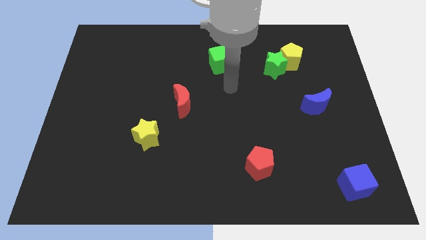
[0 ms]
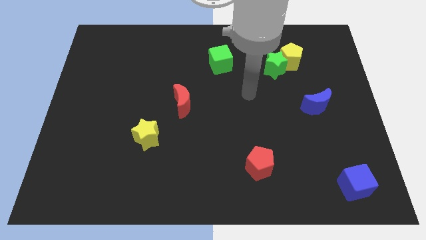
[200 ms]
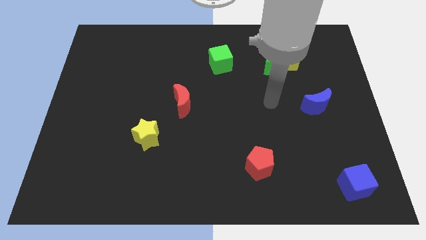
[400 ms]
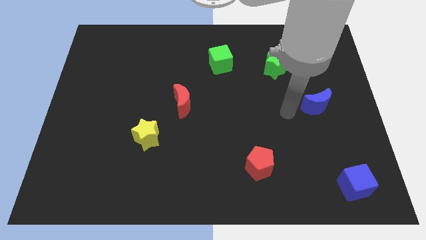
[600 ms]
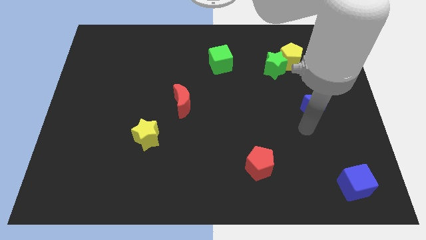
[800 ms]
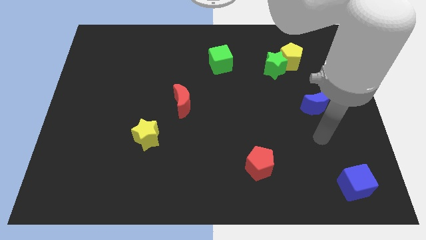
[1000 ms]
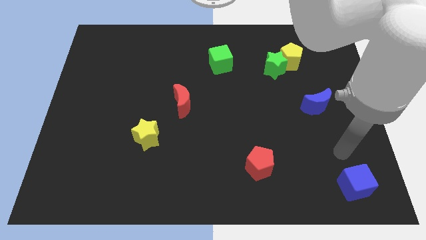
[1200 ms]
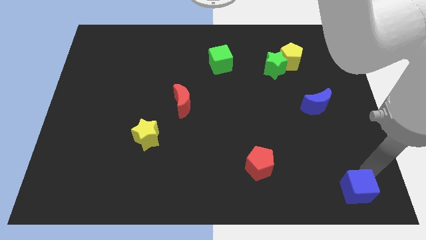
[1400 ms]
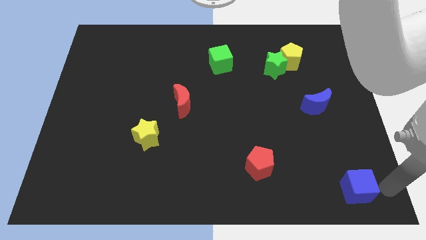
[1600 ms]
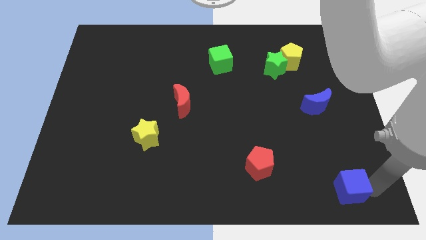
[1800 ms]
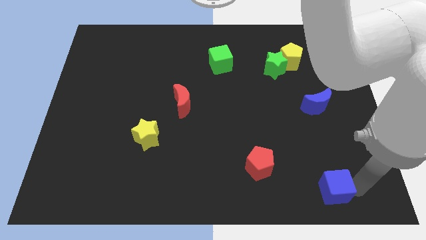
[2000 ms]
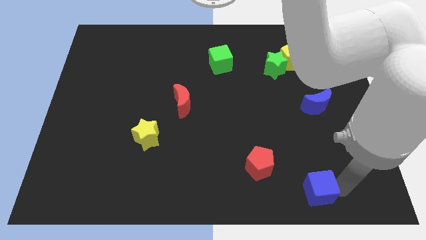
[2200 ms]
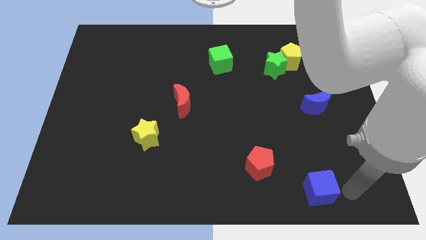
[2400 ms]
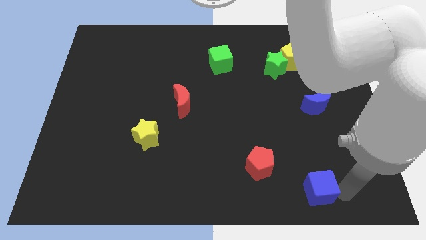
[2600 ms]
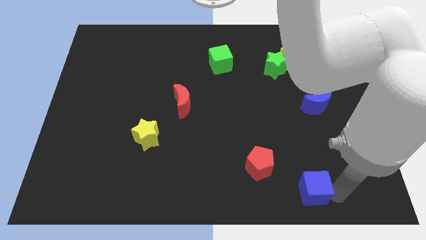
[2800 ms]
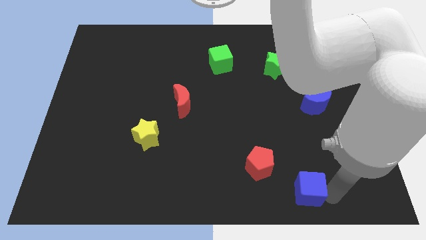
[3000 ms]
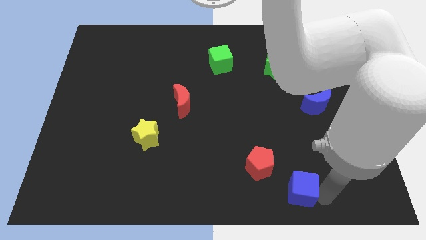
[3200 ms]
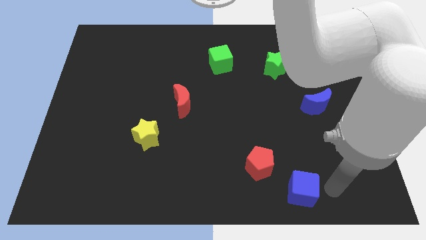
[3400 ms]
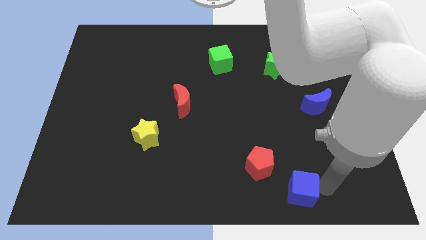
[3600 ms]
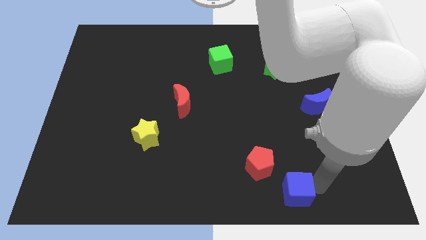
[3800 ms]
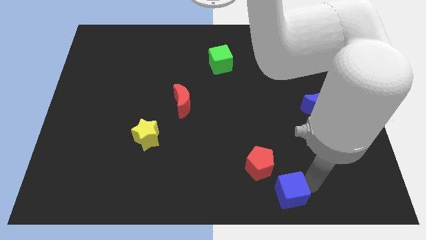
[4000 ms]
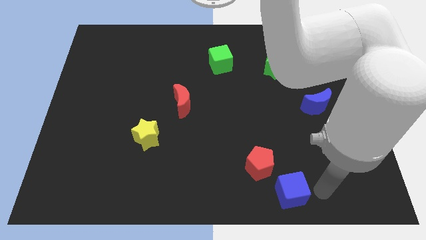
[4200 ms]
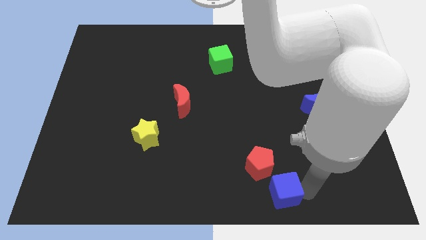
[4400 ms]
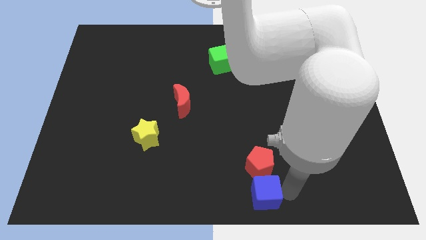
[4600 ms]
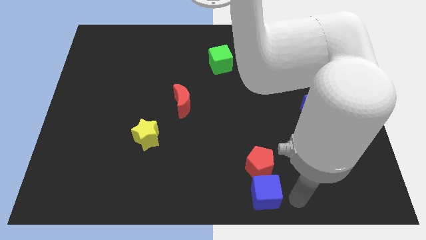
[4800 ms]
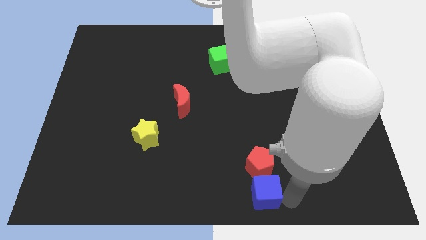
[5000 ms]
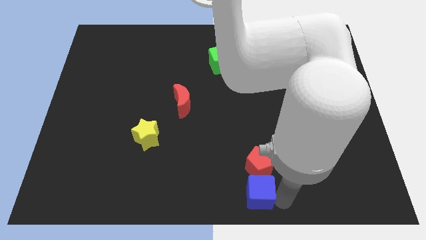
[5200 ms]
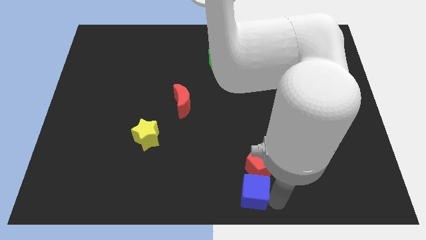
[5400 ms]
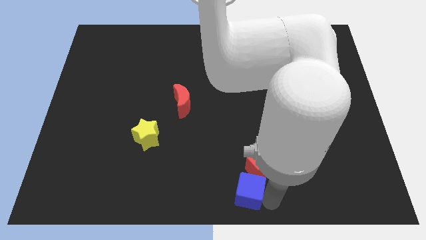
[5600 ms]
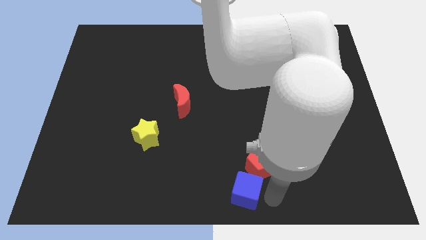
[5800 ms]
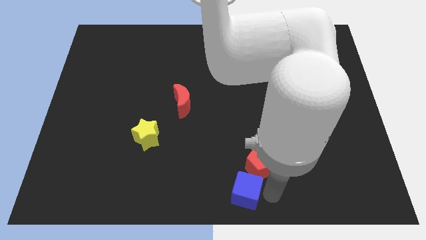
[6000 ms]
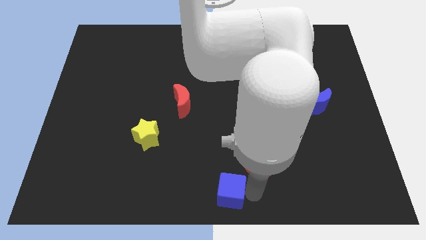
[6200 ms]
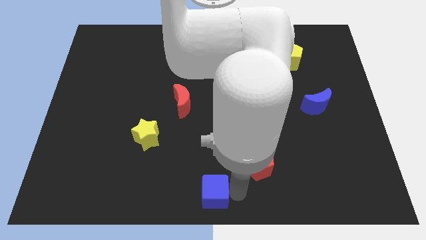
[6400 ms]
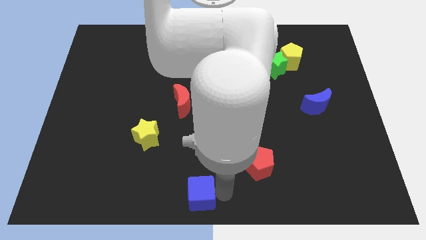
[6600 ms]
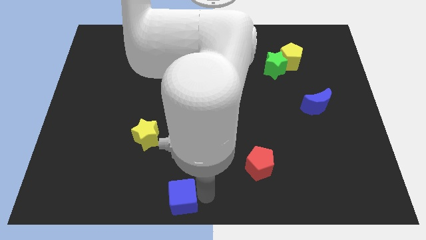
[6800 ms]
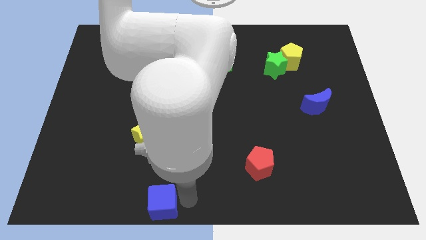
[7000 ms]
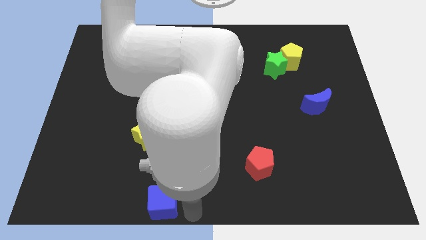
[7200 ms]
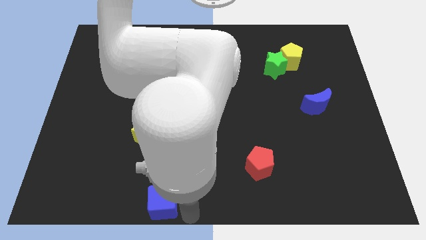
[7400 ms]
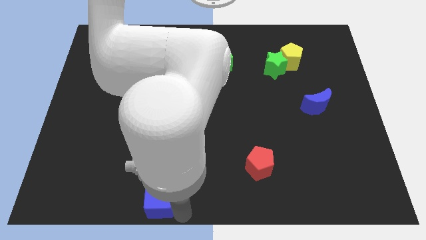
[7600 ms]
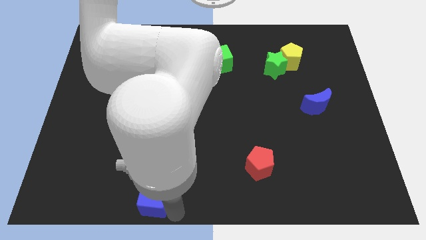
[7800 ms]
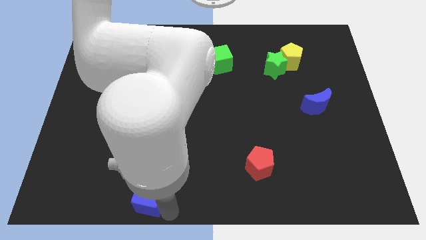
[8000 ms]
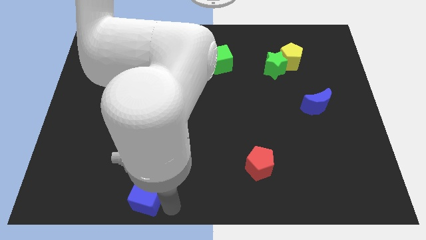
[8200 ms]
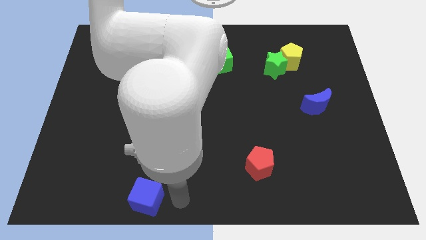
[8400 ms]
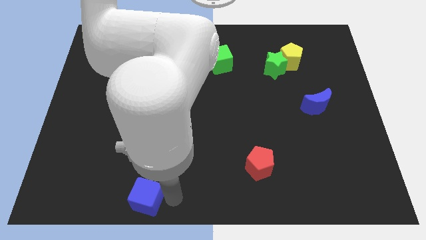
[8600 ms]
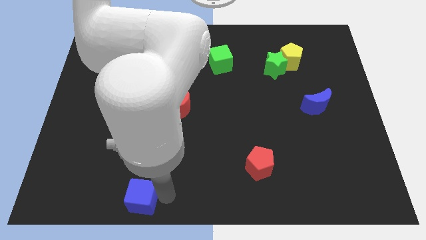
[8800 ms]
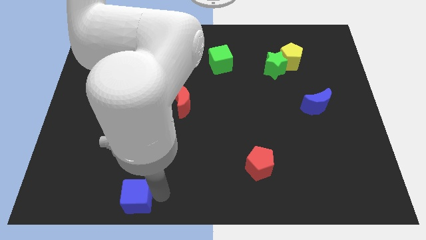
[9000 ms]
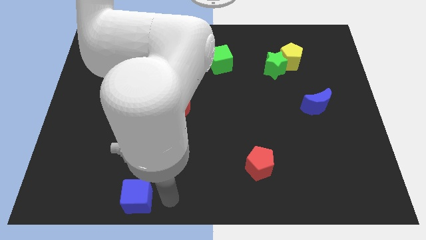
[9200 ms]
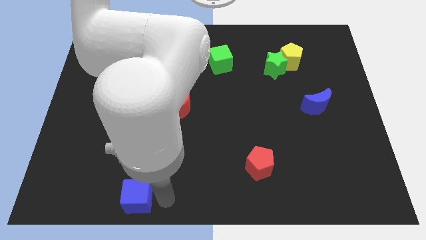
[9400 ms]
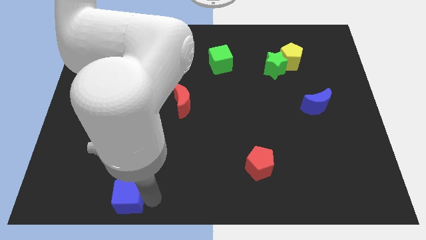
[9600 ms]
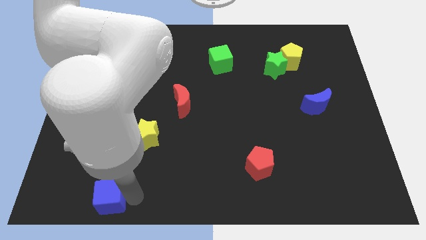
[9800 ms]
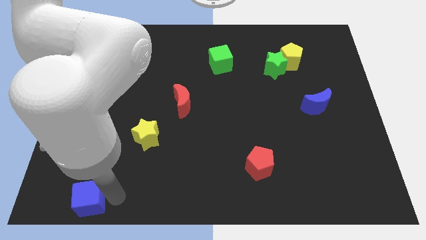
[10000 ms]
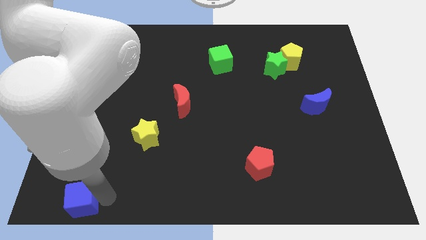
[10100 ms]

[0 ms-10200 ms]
move the blue cube to the bottom left of the board

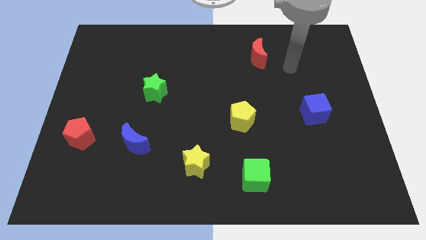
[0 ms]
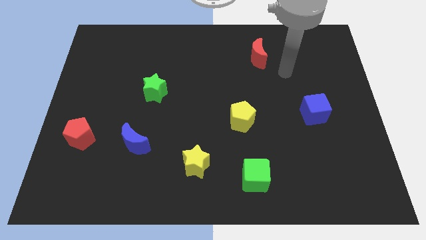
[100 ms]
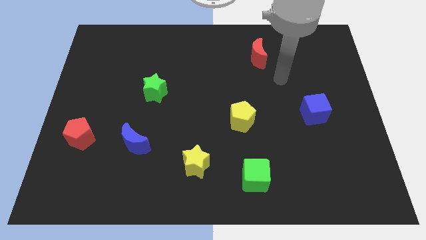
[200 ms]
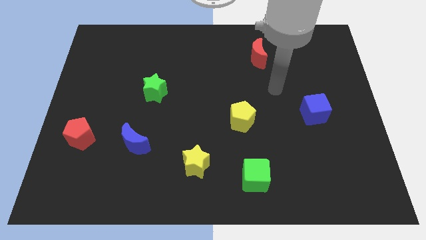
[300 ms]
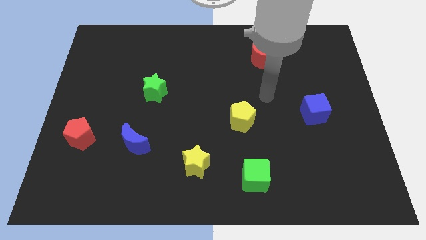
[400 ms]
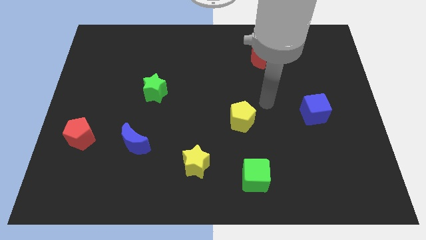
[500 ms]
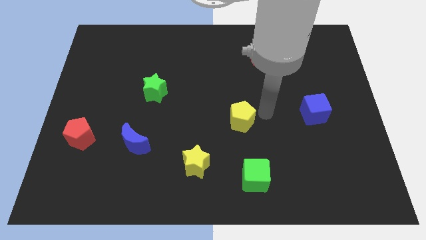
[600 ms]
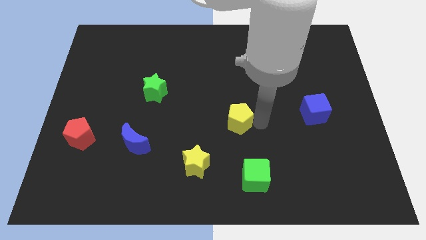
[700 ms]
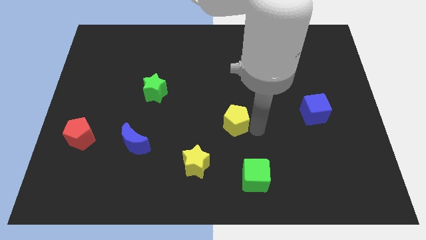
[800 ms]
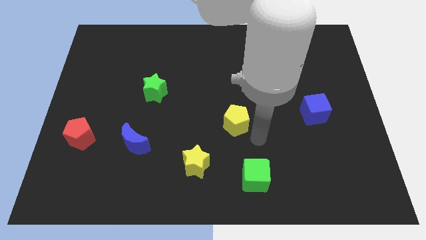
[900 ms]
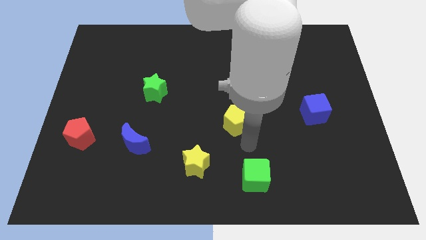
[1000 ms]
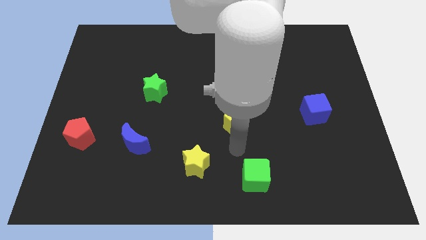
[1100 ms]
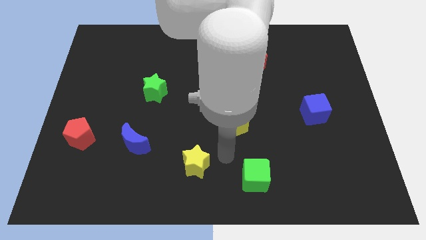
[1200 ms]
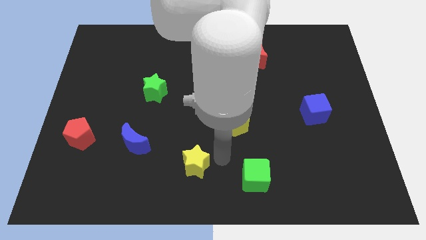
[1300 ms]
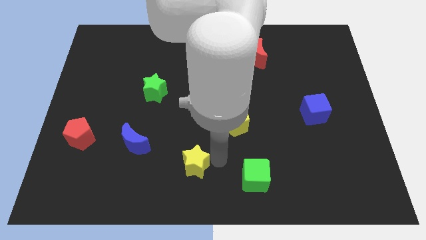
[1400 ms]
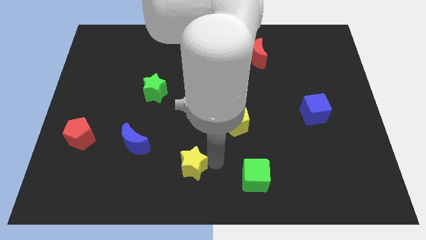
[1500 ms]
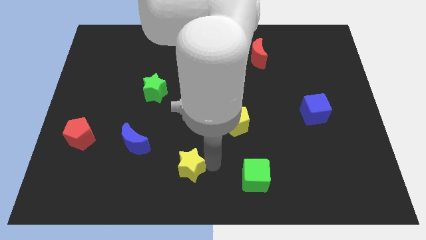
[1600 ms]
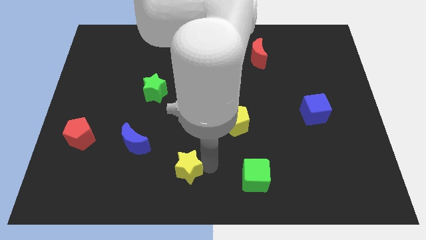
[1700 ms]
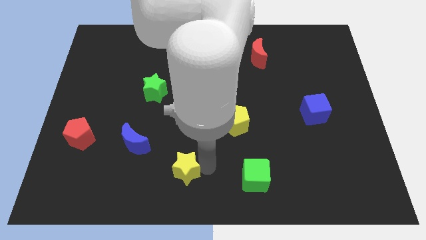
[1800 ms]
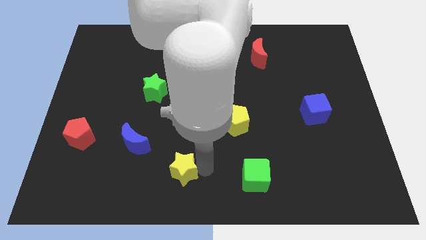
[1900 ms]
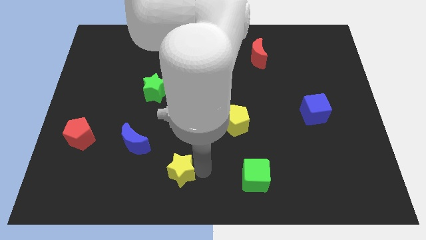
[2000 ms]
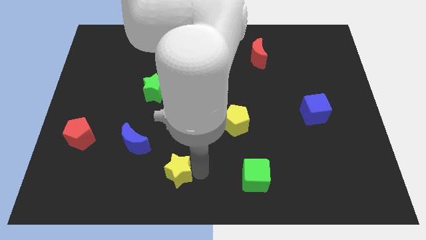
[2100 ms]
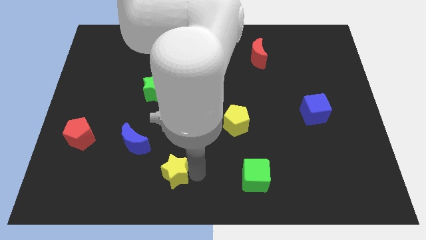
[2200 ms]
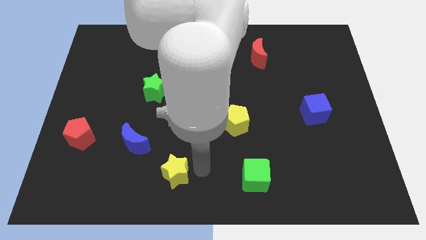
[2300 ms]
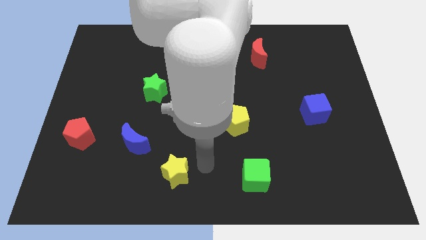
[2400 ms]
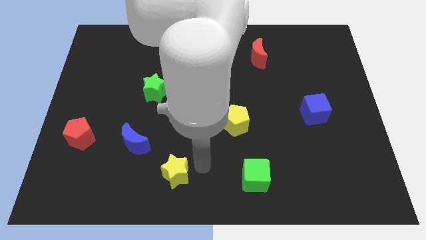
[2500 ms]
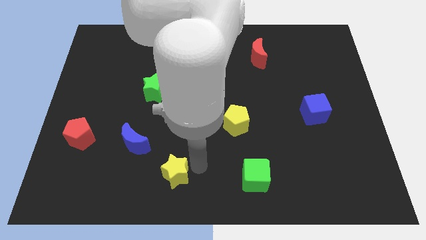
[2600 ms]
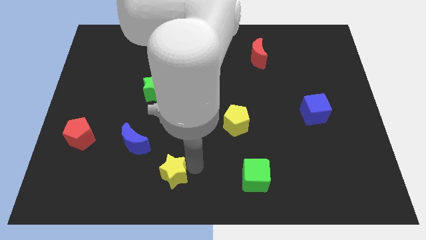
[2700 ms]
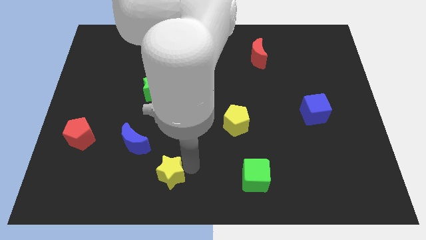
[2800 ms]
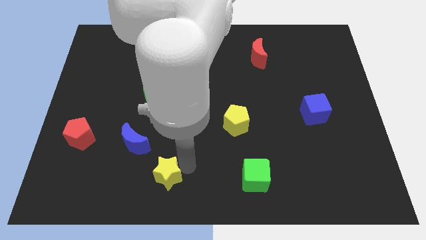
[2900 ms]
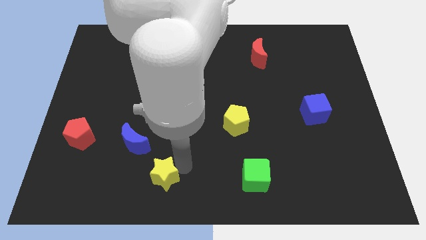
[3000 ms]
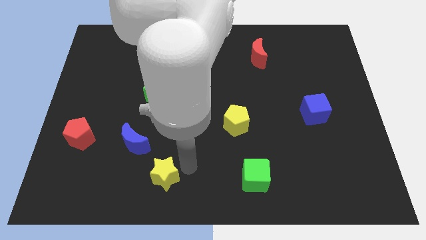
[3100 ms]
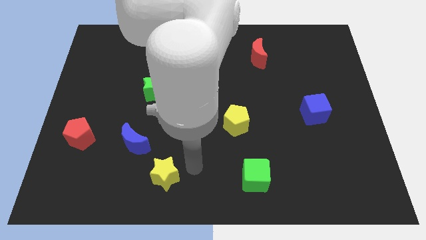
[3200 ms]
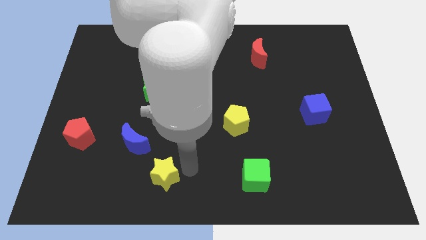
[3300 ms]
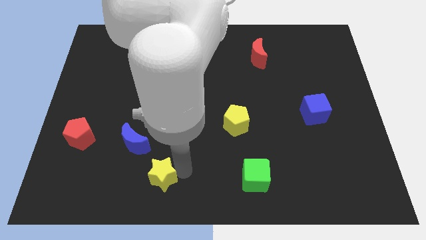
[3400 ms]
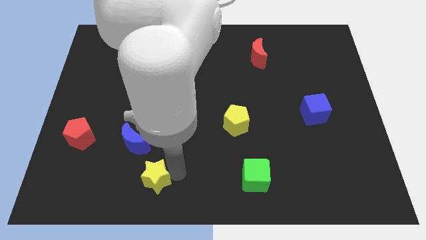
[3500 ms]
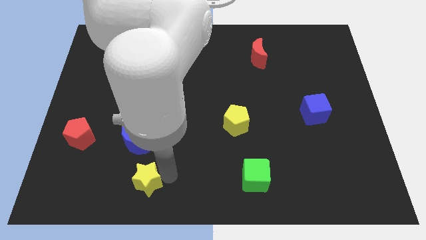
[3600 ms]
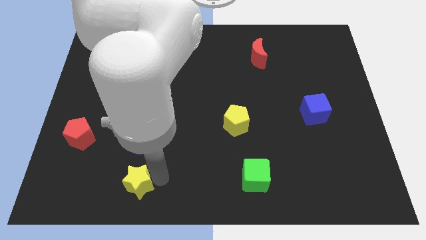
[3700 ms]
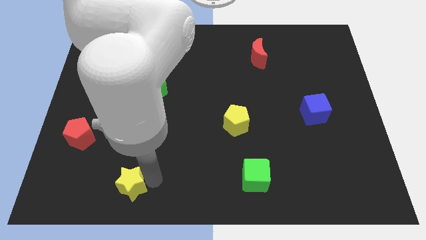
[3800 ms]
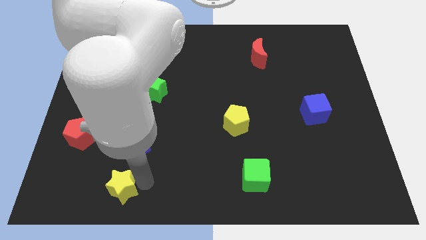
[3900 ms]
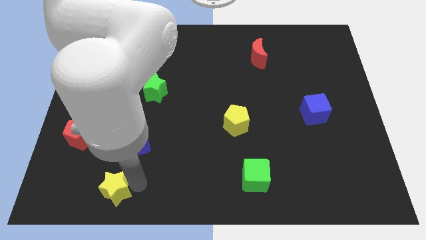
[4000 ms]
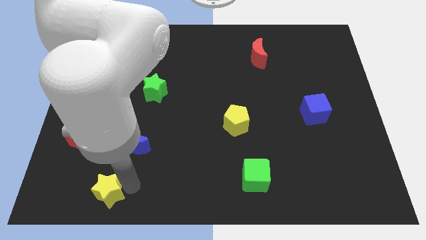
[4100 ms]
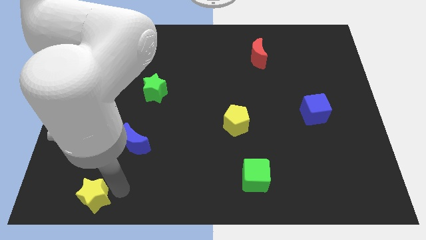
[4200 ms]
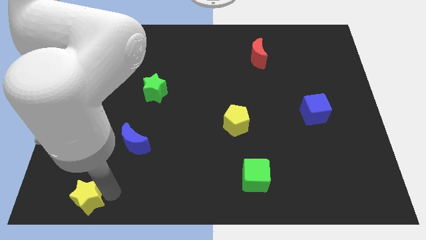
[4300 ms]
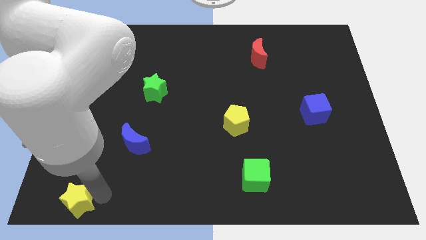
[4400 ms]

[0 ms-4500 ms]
put the yellow star to the bottom left of the board
